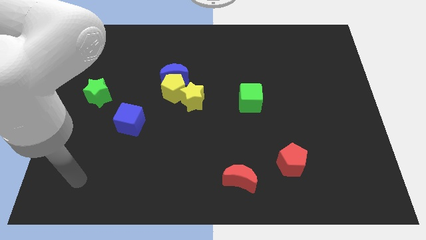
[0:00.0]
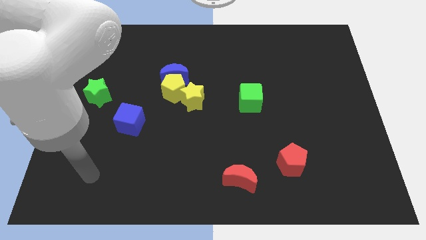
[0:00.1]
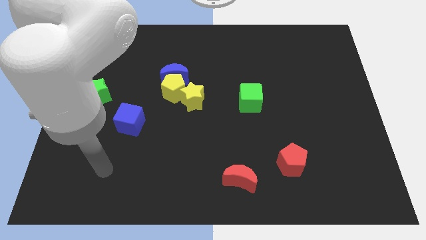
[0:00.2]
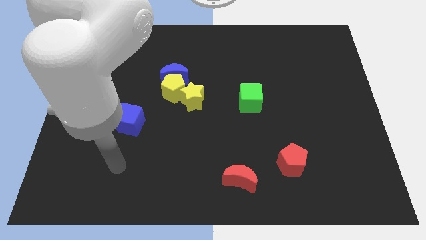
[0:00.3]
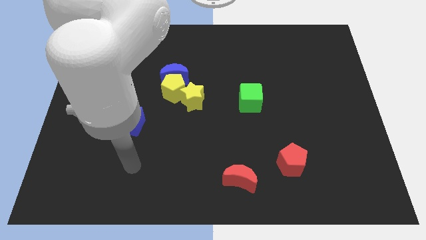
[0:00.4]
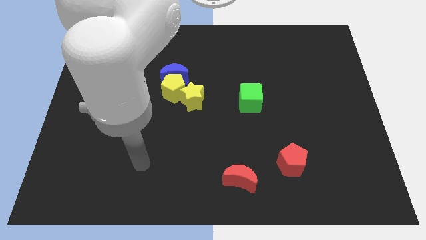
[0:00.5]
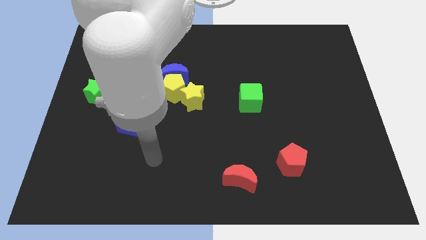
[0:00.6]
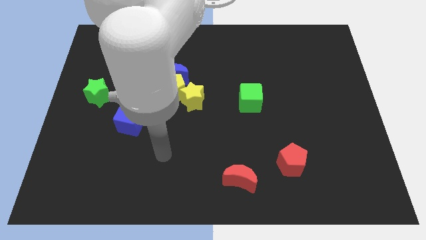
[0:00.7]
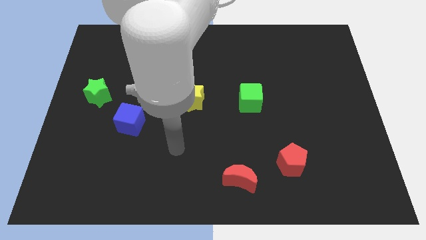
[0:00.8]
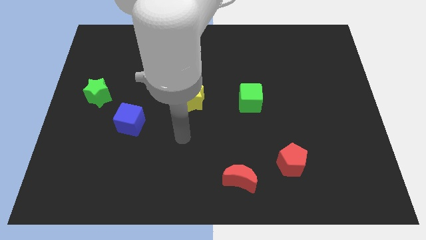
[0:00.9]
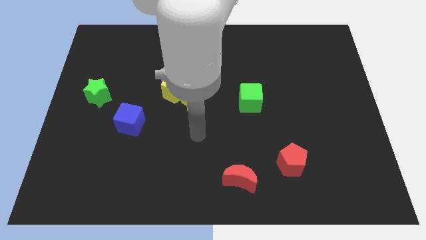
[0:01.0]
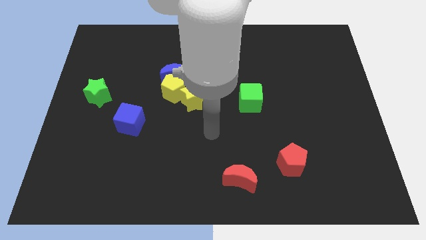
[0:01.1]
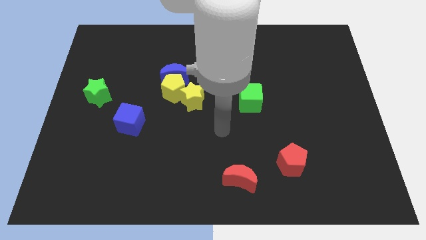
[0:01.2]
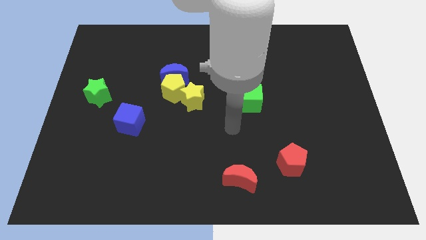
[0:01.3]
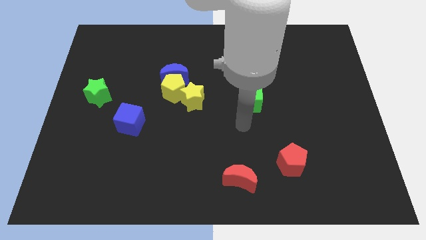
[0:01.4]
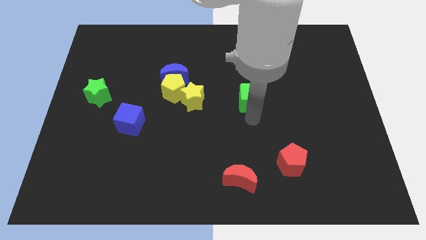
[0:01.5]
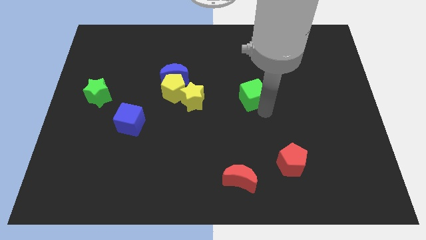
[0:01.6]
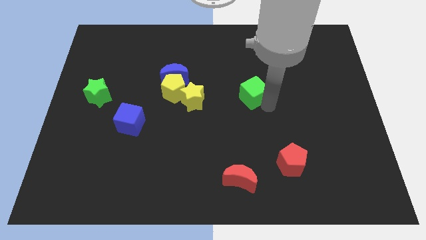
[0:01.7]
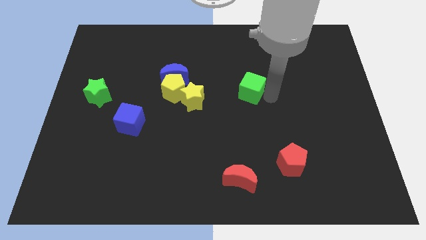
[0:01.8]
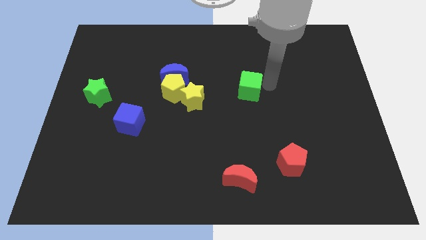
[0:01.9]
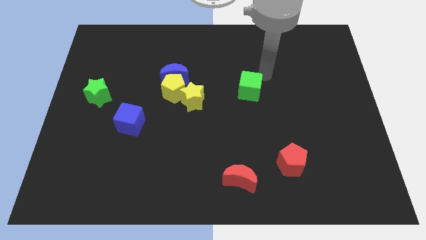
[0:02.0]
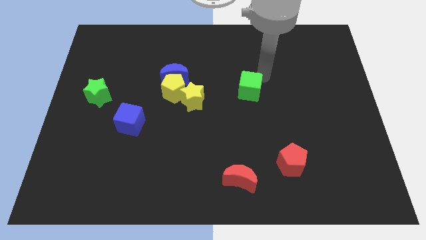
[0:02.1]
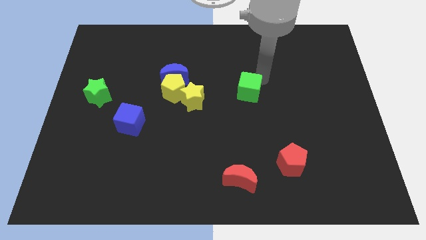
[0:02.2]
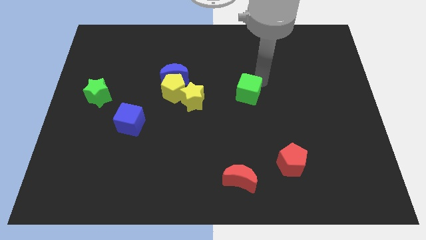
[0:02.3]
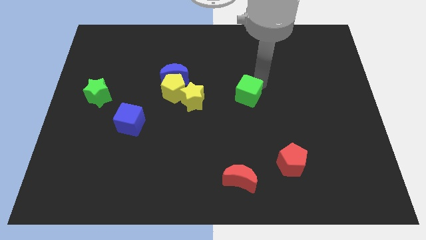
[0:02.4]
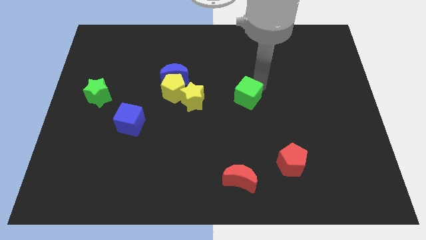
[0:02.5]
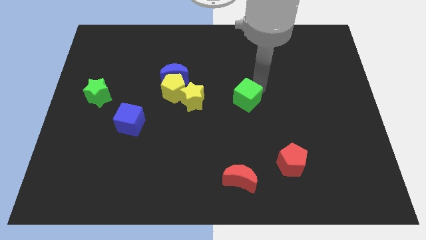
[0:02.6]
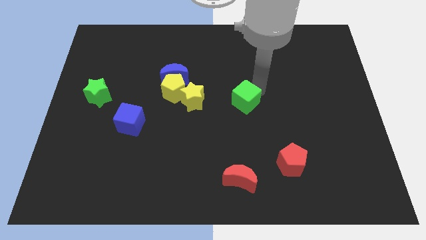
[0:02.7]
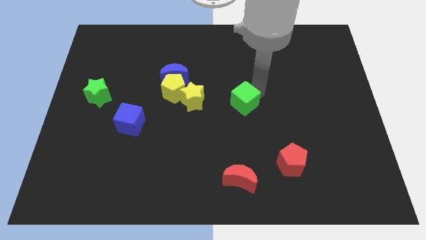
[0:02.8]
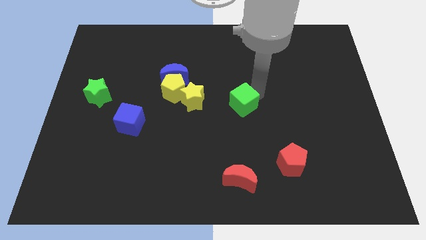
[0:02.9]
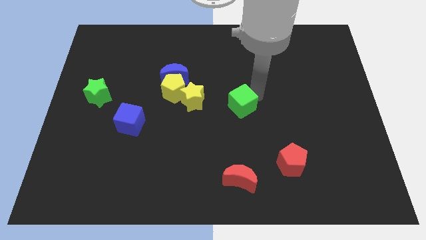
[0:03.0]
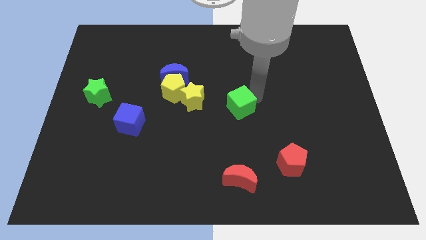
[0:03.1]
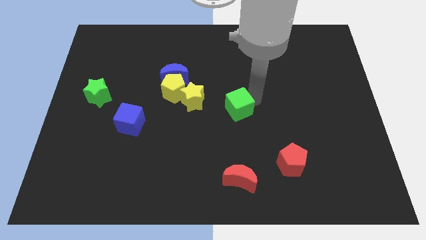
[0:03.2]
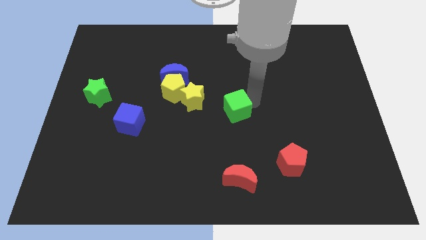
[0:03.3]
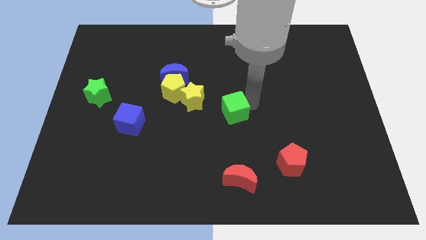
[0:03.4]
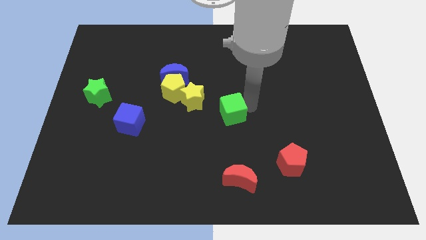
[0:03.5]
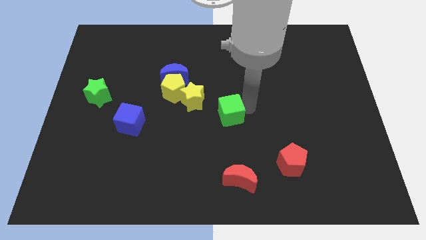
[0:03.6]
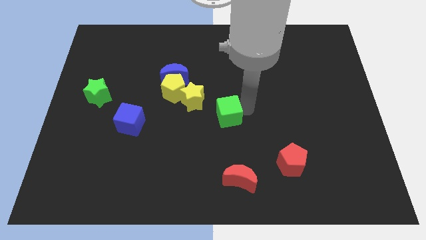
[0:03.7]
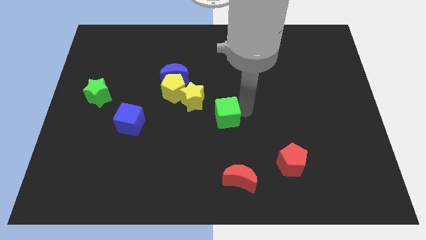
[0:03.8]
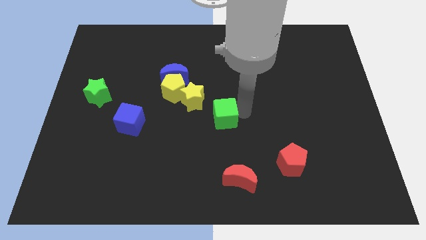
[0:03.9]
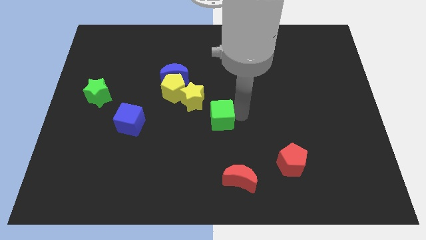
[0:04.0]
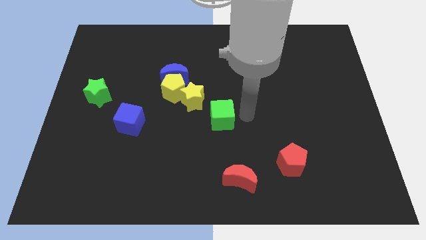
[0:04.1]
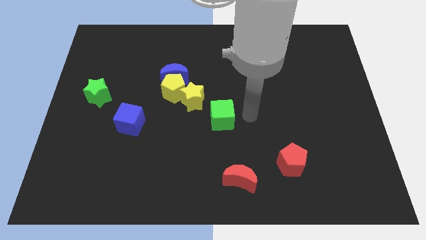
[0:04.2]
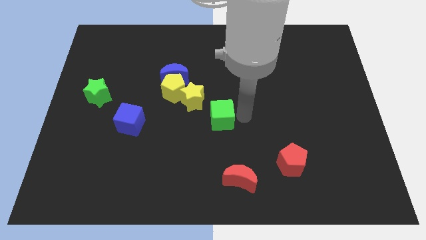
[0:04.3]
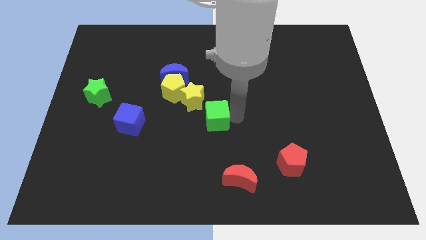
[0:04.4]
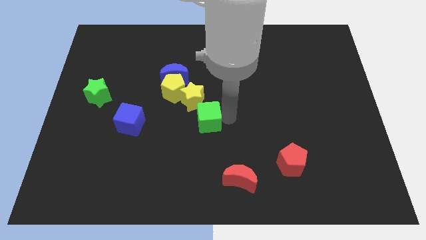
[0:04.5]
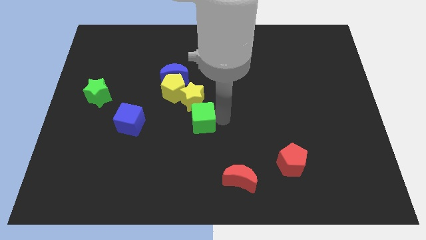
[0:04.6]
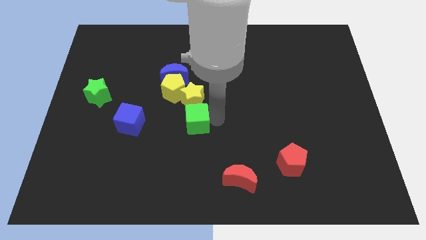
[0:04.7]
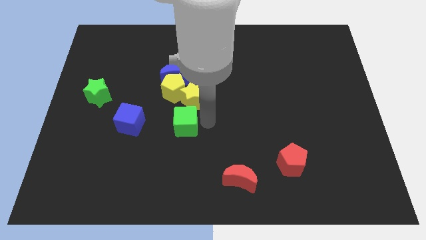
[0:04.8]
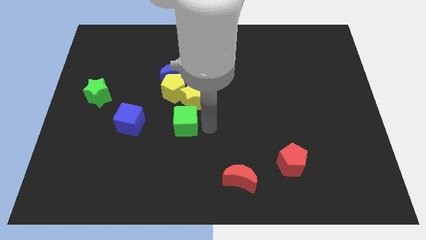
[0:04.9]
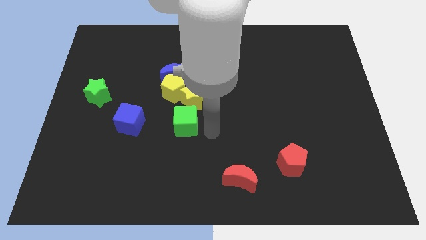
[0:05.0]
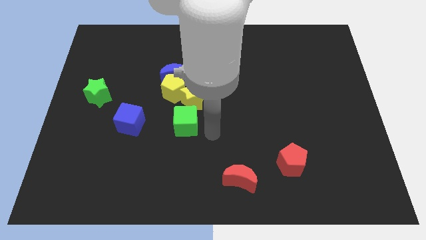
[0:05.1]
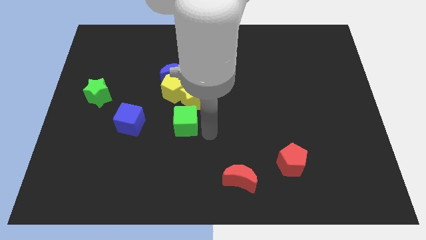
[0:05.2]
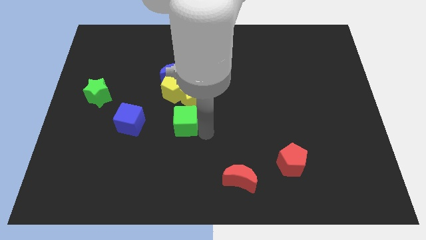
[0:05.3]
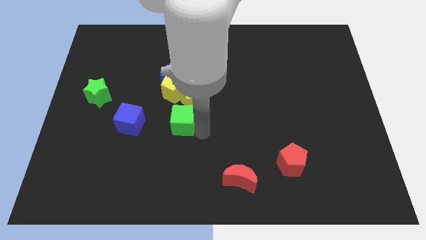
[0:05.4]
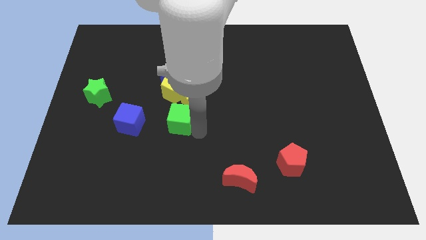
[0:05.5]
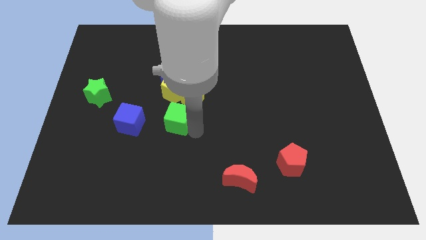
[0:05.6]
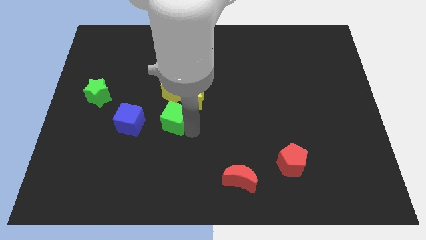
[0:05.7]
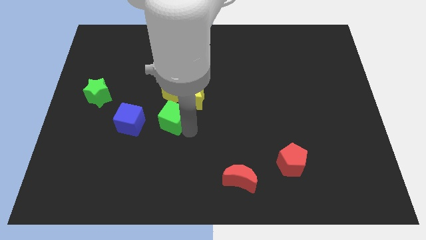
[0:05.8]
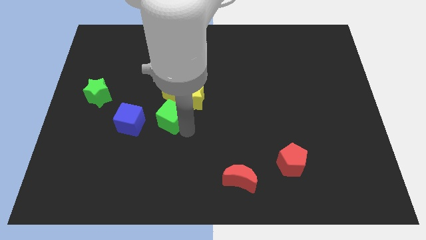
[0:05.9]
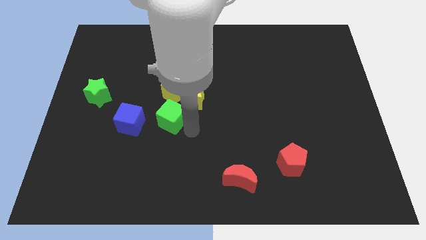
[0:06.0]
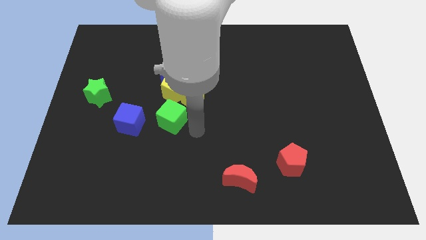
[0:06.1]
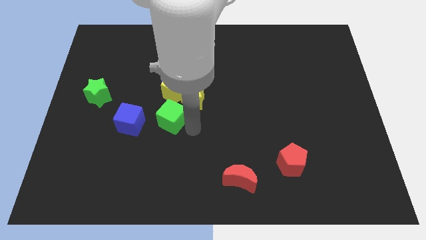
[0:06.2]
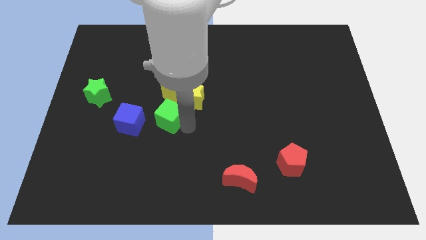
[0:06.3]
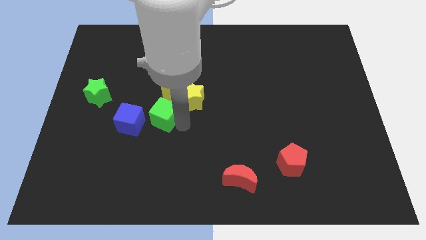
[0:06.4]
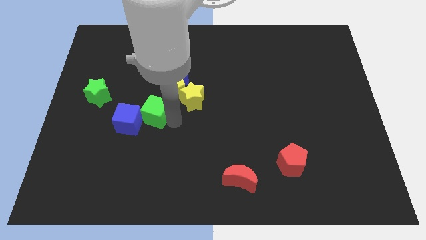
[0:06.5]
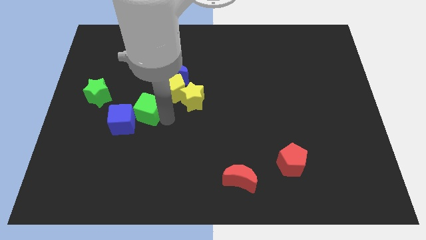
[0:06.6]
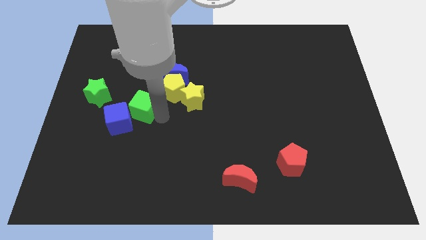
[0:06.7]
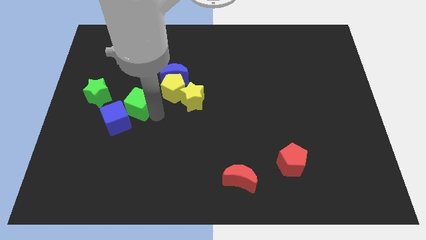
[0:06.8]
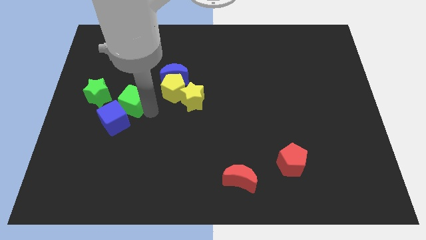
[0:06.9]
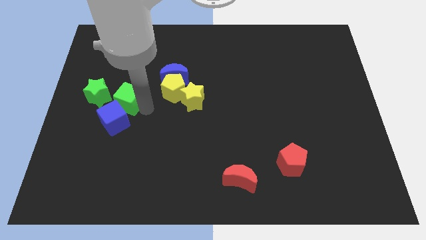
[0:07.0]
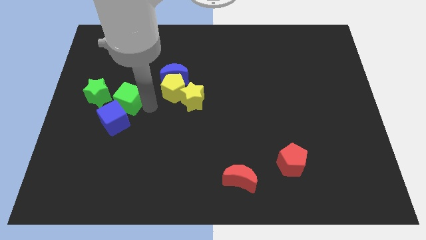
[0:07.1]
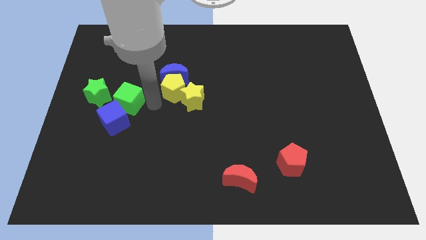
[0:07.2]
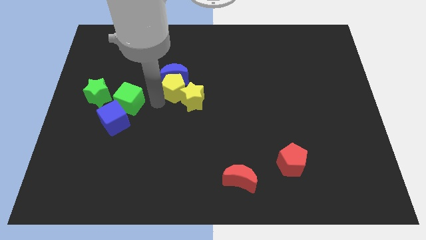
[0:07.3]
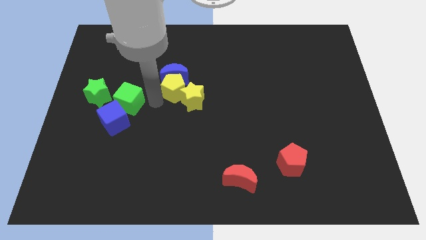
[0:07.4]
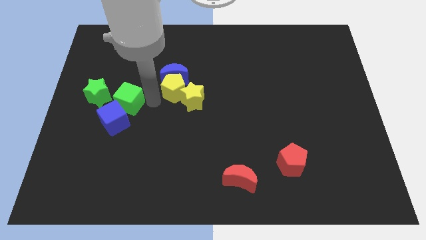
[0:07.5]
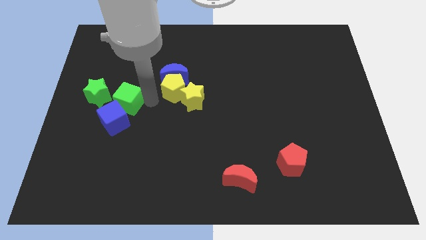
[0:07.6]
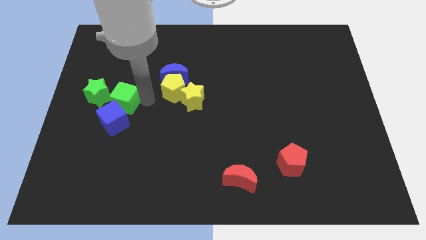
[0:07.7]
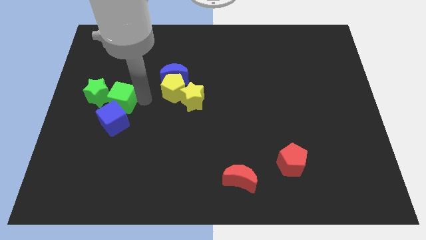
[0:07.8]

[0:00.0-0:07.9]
put the green cube next to the green star
